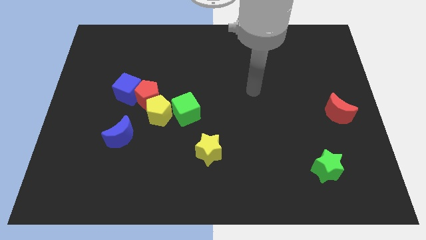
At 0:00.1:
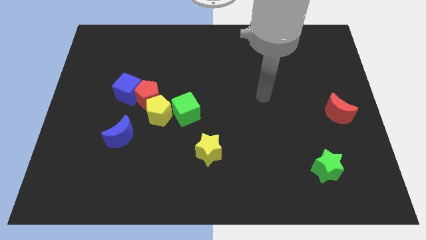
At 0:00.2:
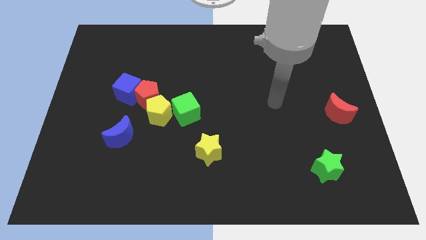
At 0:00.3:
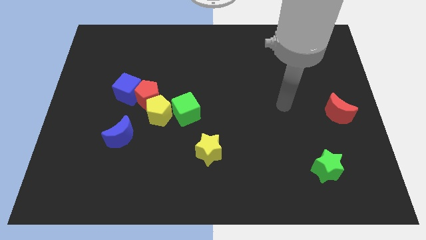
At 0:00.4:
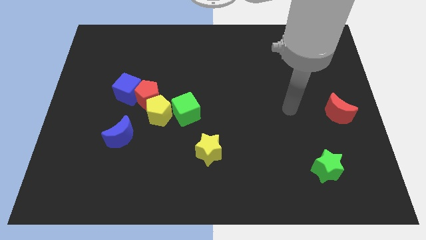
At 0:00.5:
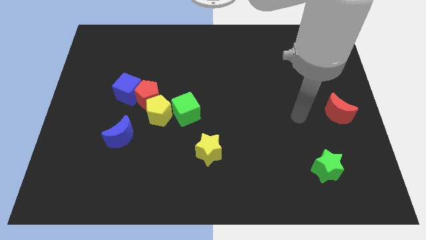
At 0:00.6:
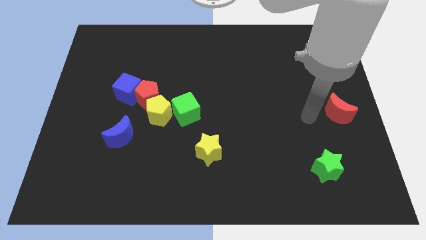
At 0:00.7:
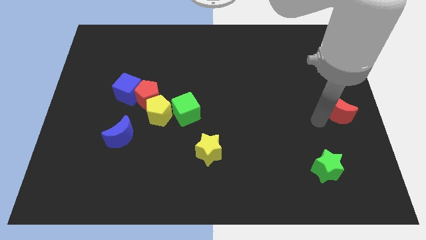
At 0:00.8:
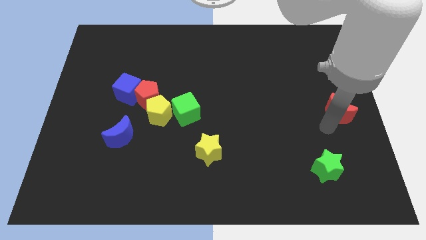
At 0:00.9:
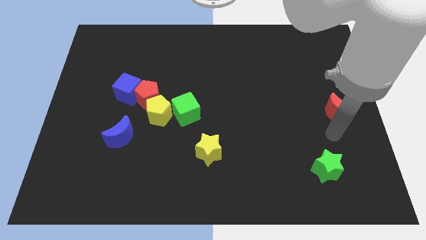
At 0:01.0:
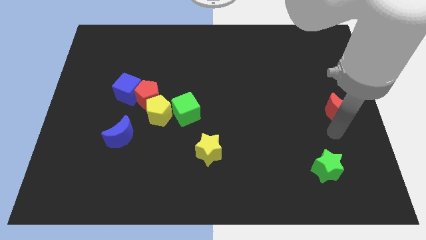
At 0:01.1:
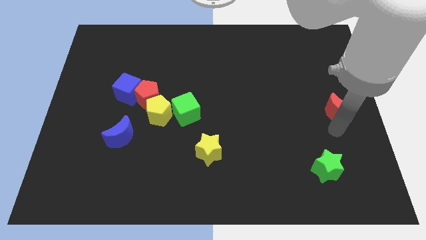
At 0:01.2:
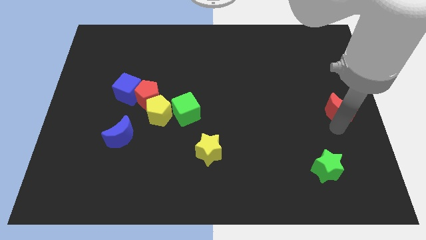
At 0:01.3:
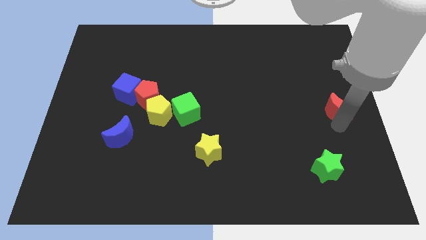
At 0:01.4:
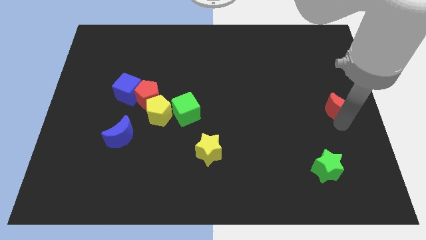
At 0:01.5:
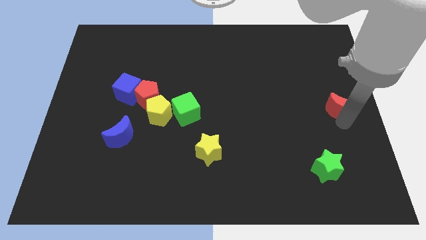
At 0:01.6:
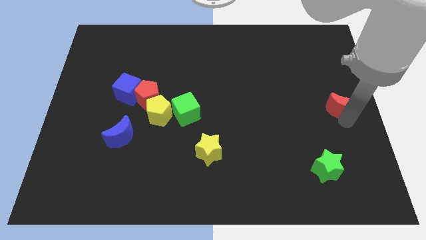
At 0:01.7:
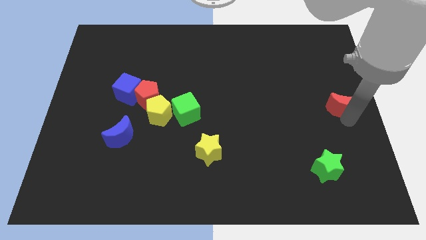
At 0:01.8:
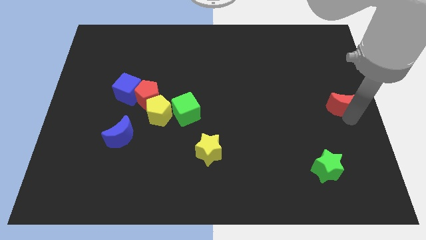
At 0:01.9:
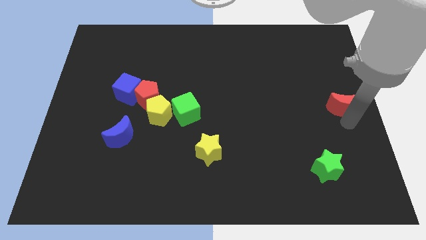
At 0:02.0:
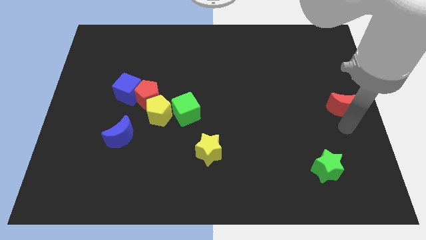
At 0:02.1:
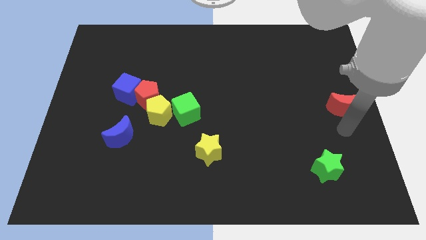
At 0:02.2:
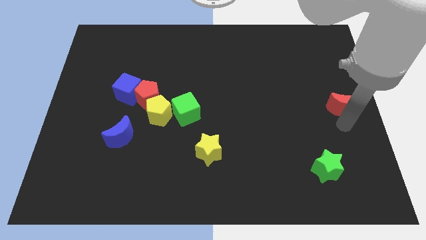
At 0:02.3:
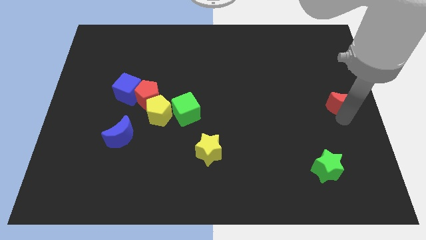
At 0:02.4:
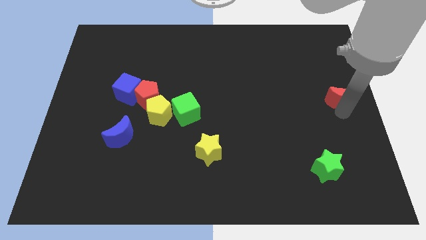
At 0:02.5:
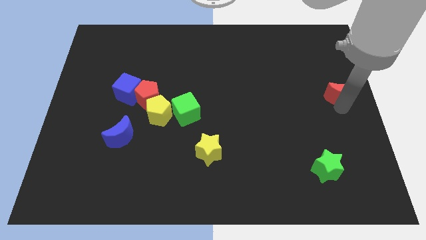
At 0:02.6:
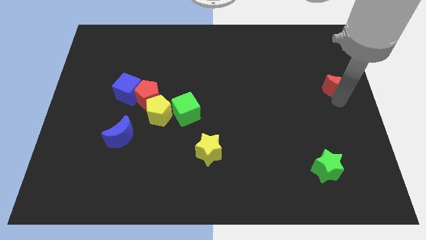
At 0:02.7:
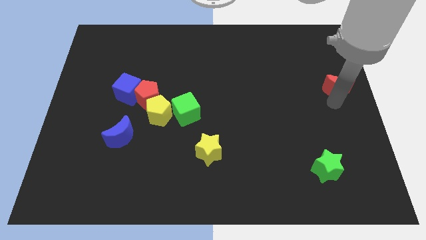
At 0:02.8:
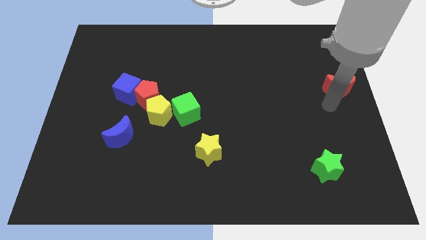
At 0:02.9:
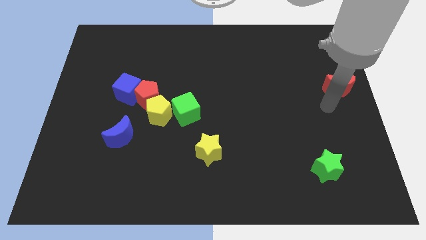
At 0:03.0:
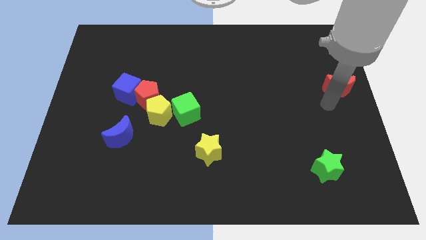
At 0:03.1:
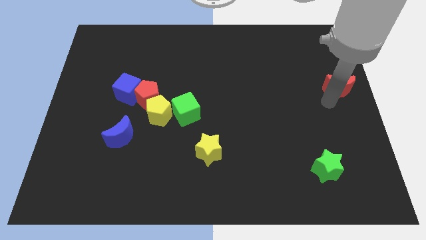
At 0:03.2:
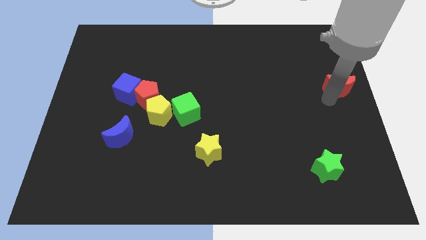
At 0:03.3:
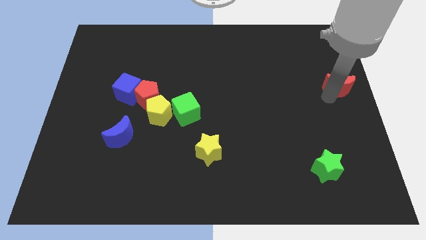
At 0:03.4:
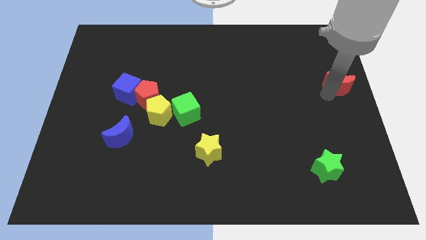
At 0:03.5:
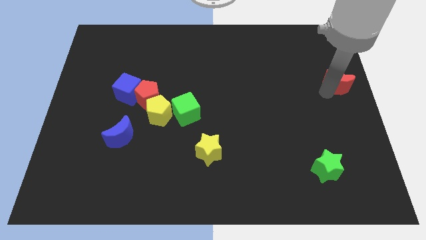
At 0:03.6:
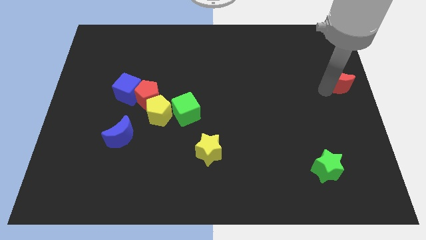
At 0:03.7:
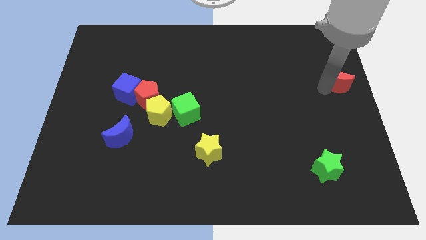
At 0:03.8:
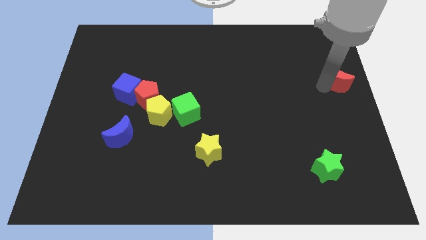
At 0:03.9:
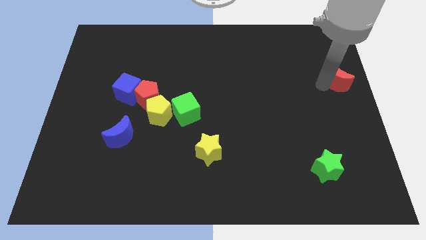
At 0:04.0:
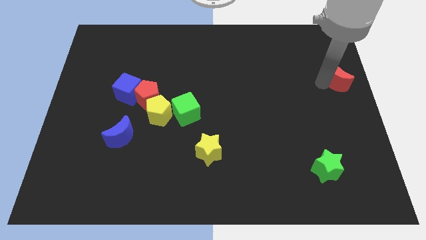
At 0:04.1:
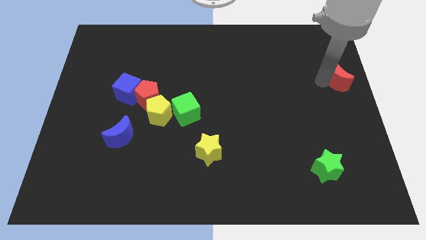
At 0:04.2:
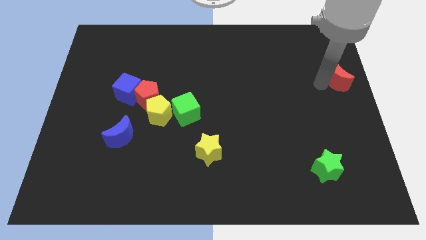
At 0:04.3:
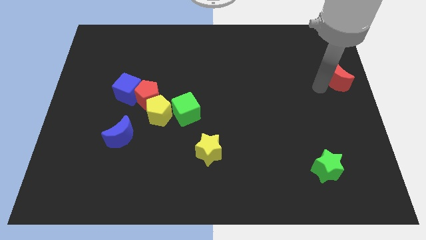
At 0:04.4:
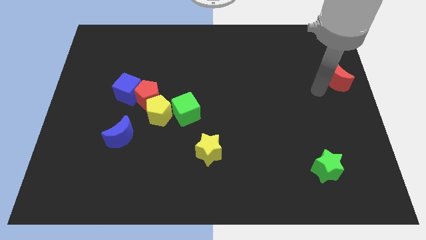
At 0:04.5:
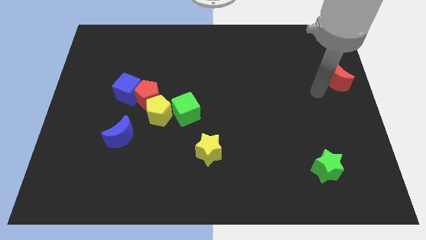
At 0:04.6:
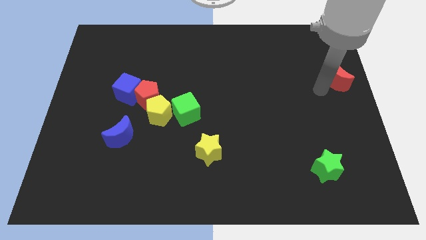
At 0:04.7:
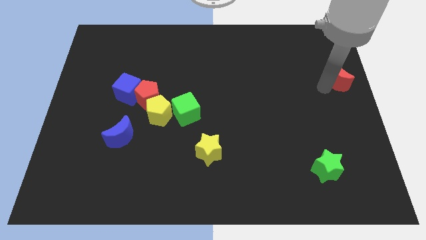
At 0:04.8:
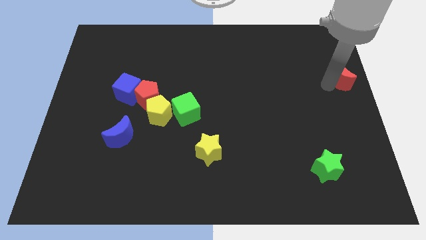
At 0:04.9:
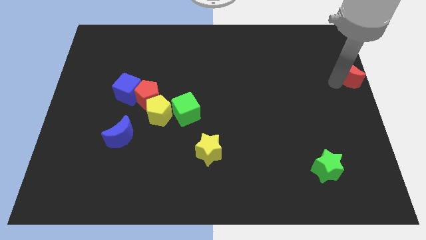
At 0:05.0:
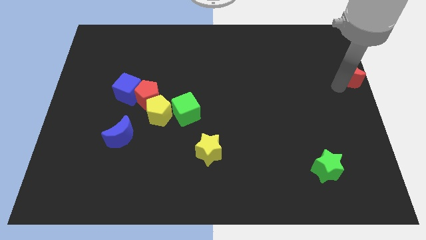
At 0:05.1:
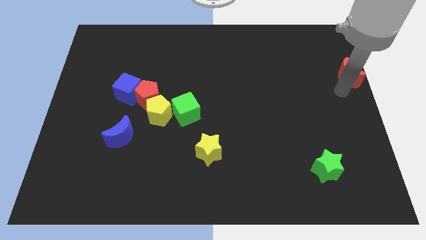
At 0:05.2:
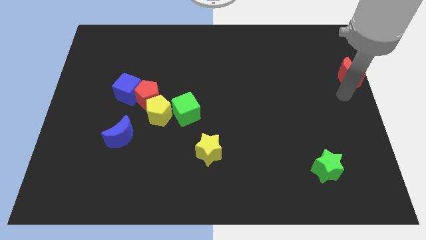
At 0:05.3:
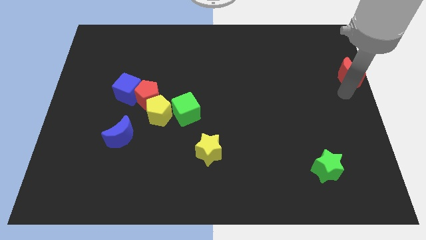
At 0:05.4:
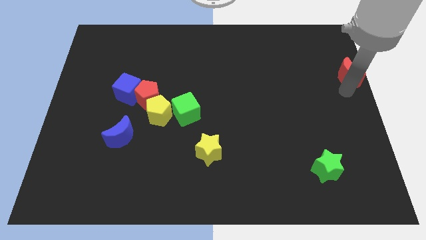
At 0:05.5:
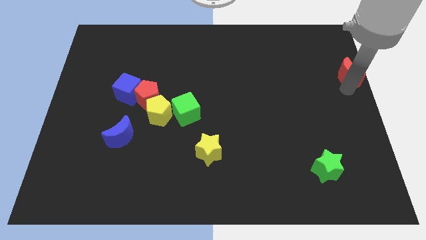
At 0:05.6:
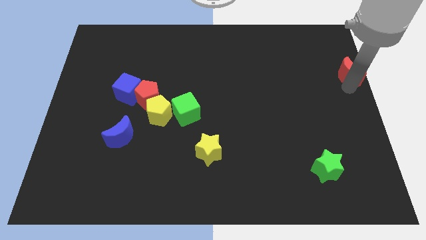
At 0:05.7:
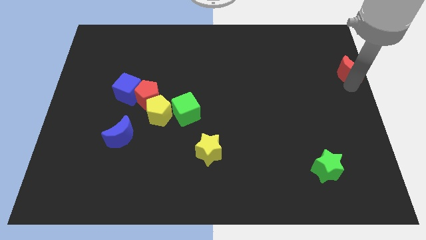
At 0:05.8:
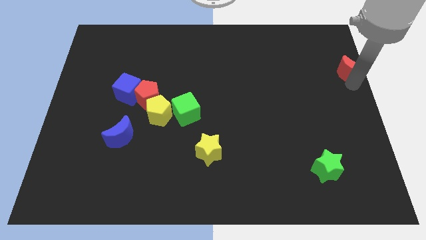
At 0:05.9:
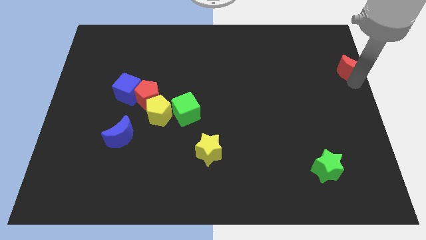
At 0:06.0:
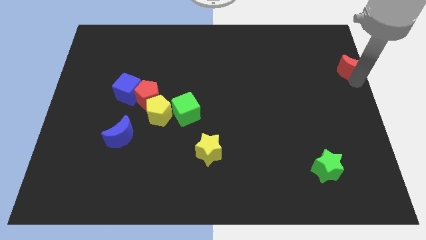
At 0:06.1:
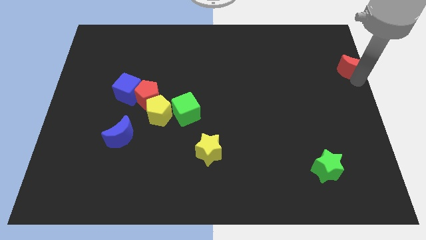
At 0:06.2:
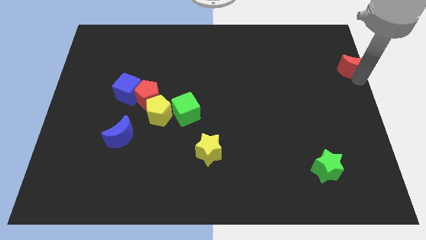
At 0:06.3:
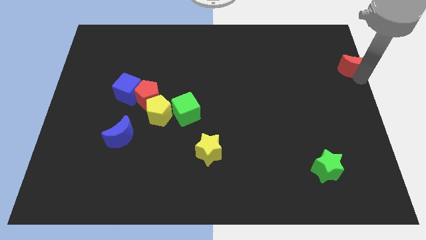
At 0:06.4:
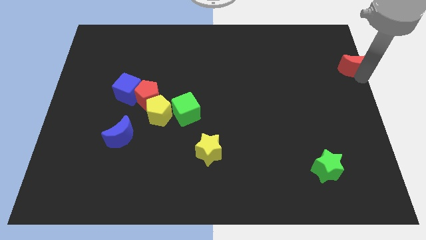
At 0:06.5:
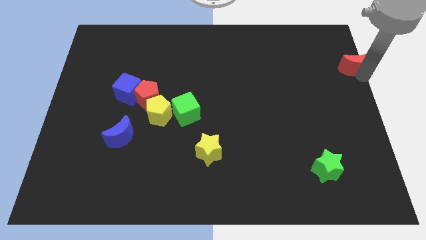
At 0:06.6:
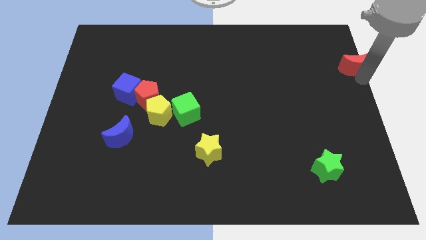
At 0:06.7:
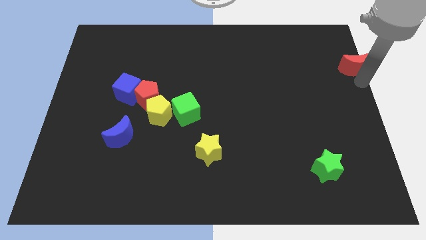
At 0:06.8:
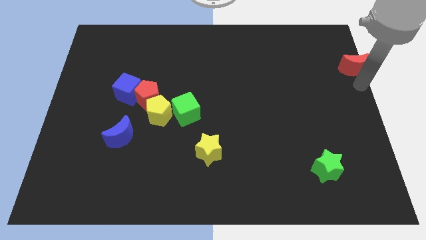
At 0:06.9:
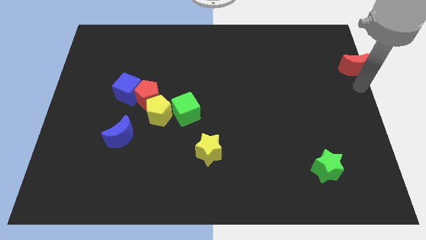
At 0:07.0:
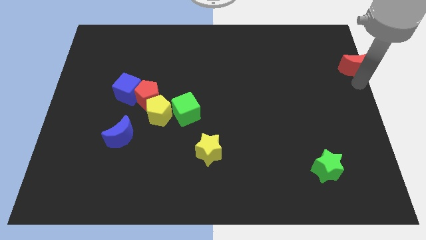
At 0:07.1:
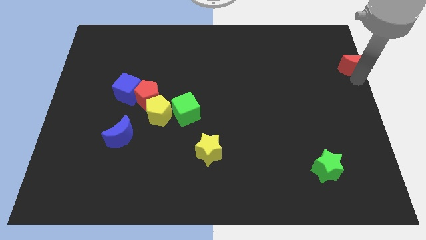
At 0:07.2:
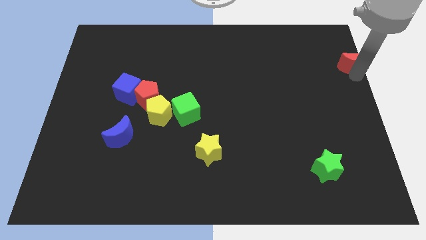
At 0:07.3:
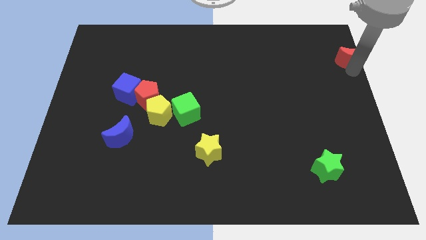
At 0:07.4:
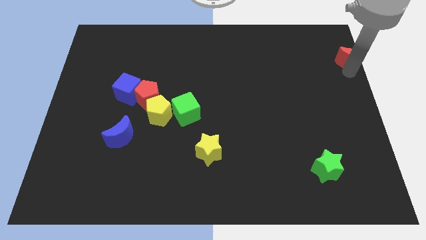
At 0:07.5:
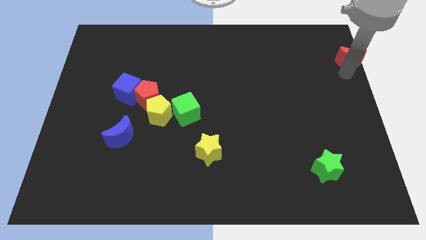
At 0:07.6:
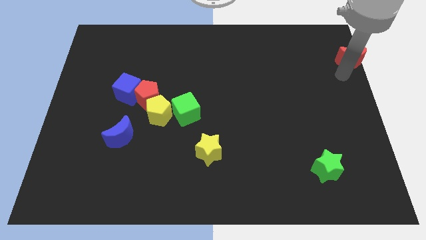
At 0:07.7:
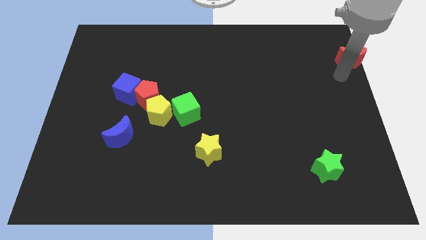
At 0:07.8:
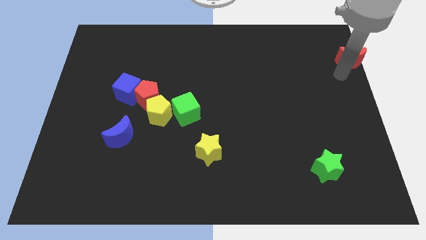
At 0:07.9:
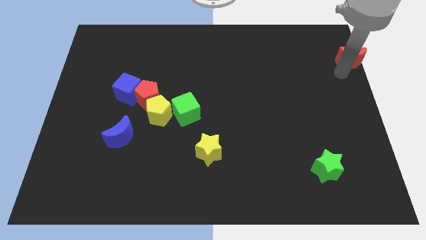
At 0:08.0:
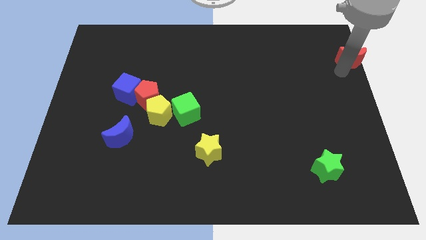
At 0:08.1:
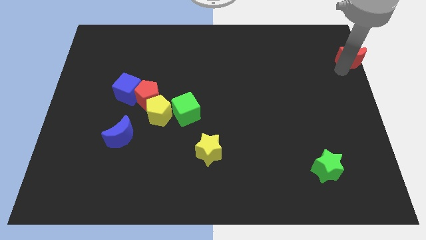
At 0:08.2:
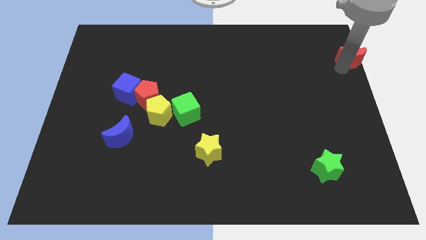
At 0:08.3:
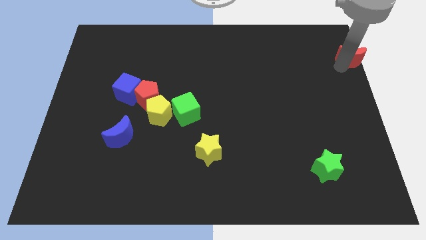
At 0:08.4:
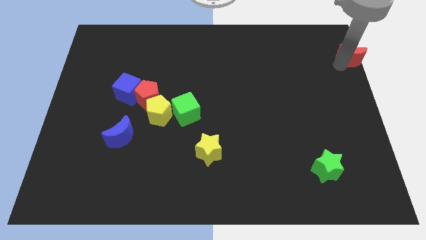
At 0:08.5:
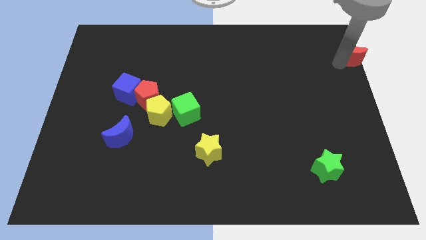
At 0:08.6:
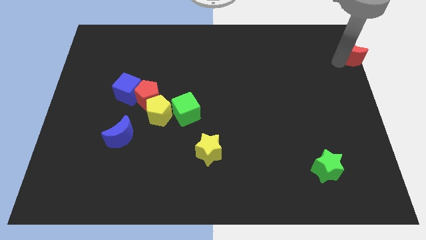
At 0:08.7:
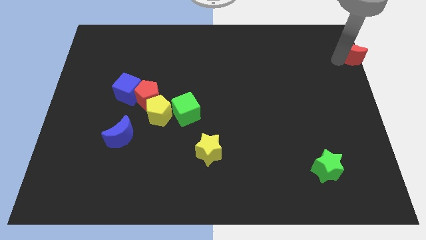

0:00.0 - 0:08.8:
push the red moon to the top right
